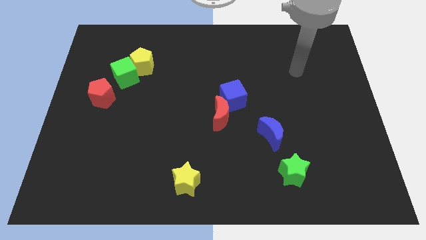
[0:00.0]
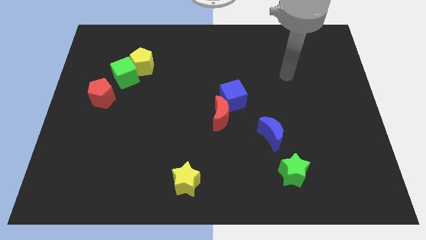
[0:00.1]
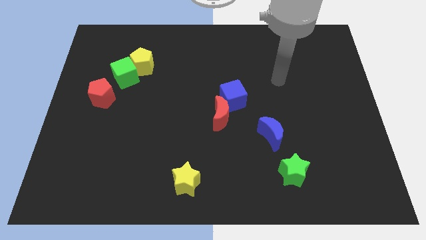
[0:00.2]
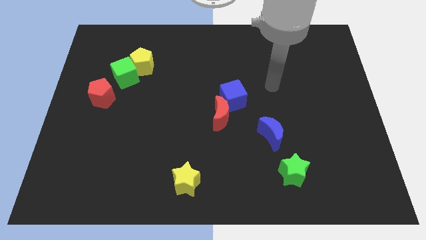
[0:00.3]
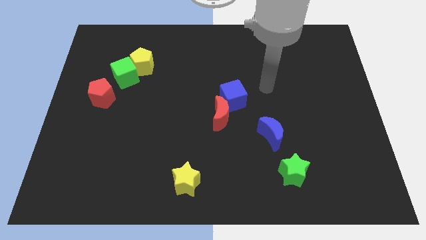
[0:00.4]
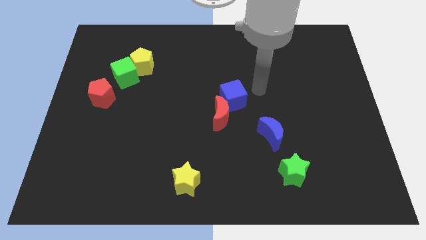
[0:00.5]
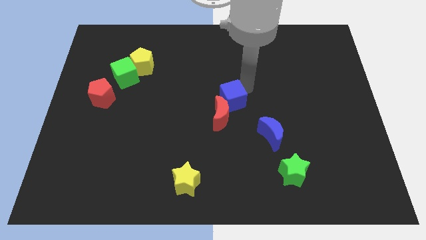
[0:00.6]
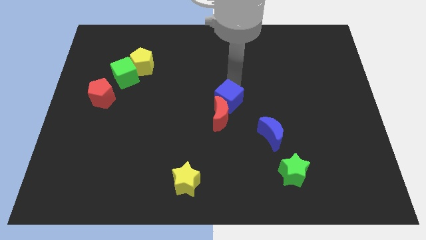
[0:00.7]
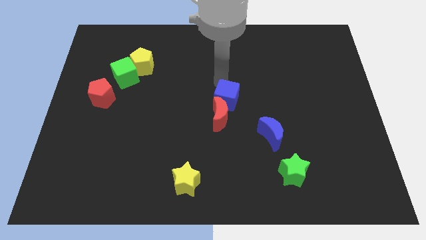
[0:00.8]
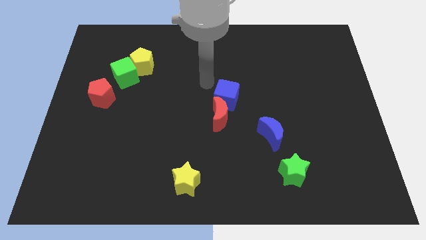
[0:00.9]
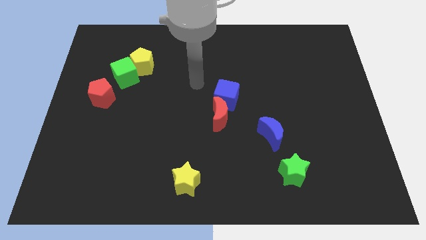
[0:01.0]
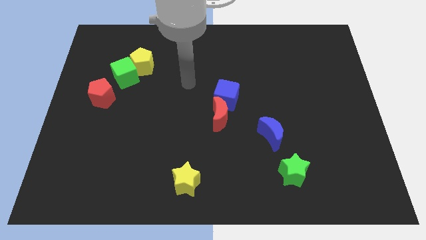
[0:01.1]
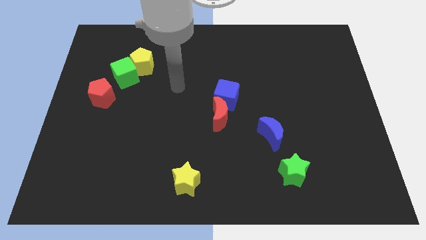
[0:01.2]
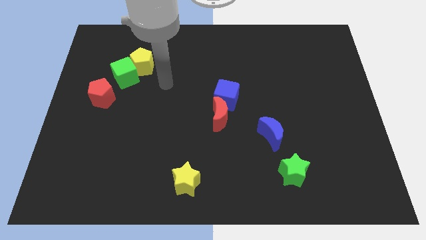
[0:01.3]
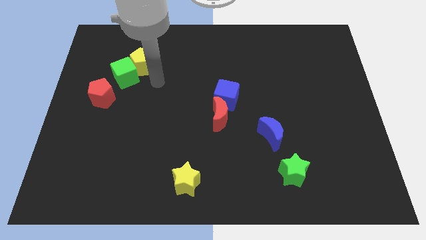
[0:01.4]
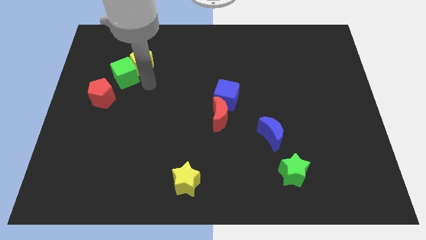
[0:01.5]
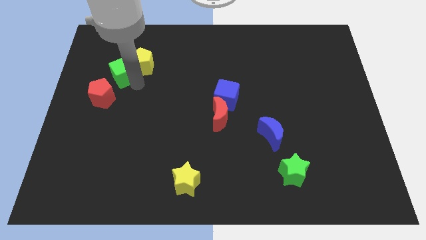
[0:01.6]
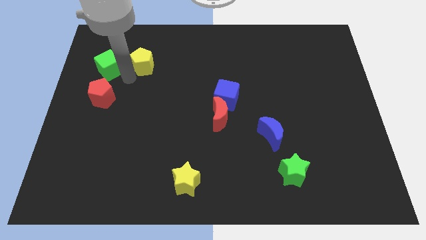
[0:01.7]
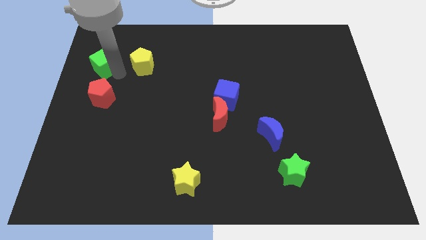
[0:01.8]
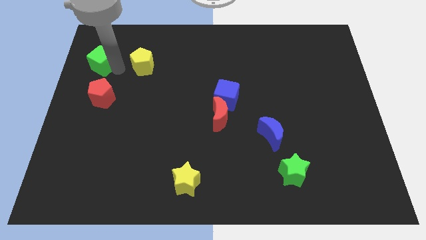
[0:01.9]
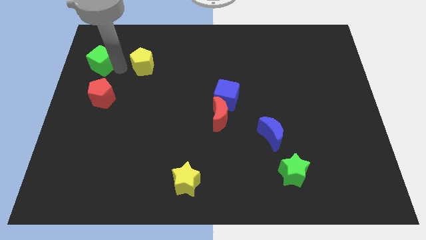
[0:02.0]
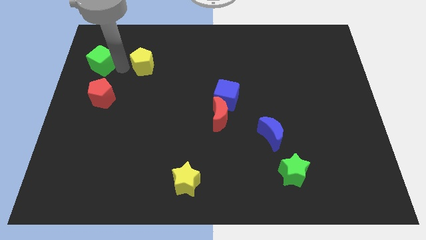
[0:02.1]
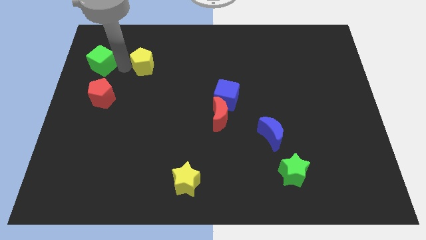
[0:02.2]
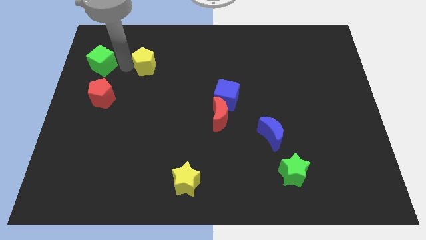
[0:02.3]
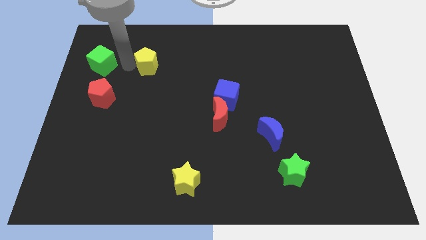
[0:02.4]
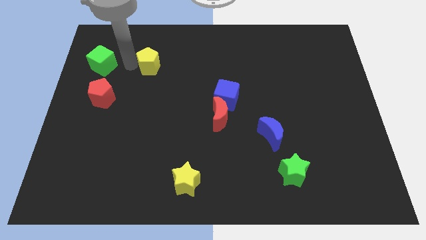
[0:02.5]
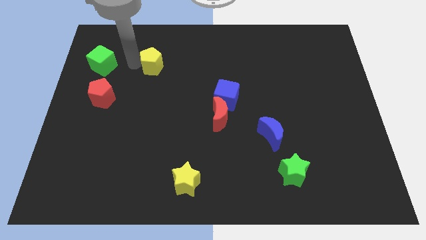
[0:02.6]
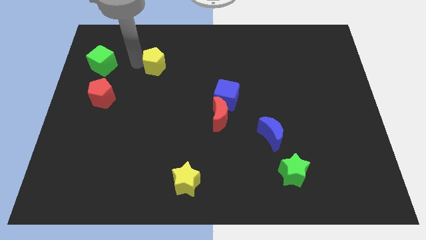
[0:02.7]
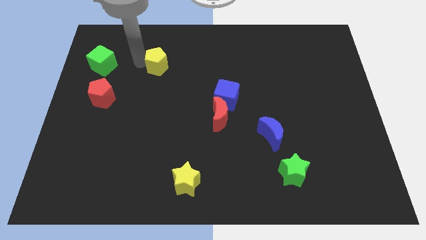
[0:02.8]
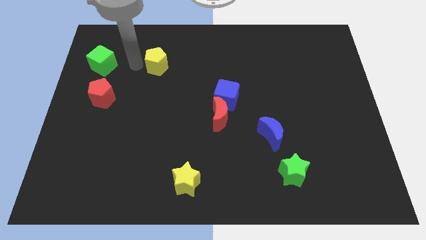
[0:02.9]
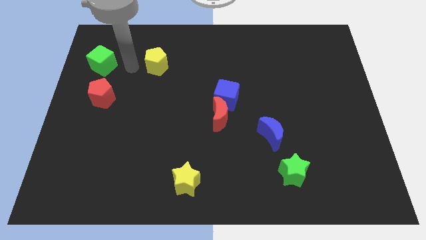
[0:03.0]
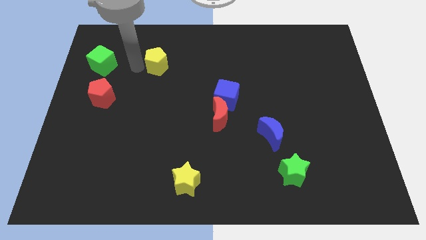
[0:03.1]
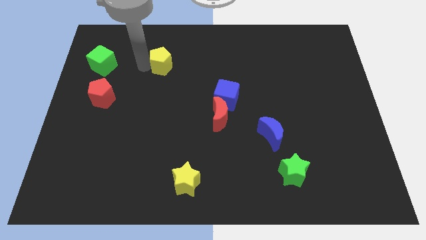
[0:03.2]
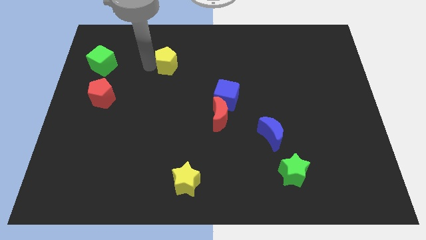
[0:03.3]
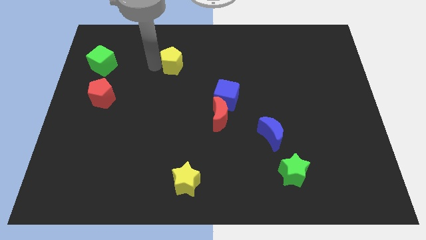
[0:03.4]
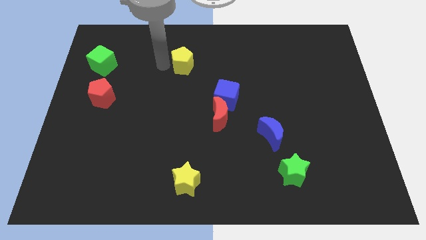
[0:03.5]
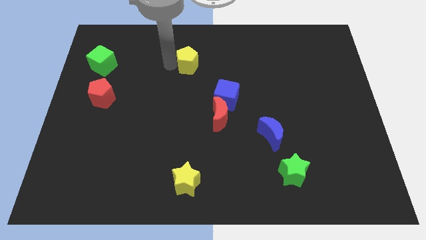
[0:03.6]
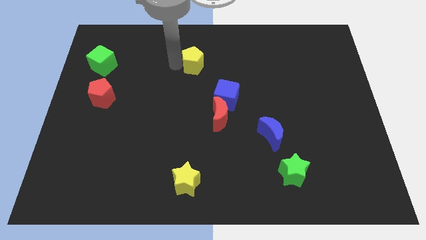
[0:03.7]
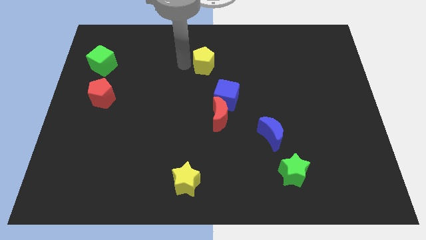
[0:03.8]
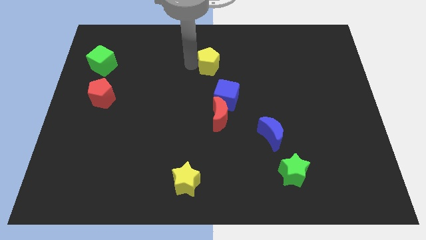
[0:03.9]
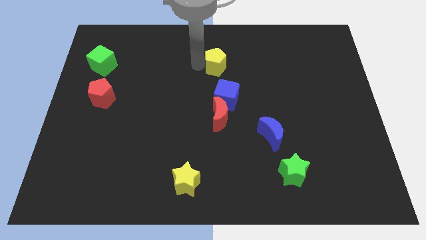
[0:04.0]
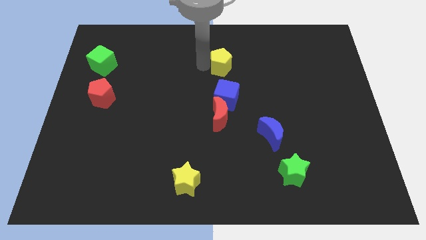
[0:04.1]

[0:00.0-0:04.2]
slide the yellow pentagon right

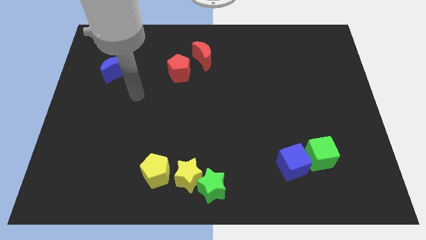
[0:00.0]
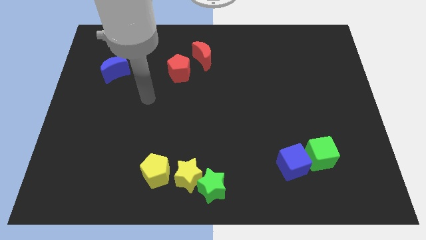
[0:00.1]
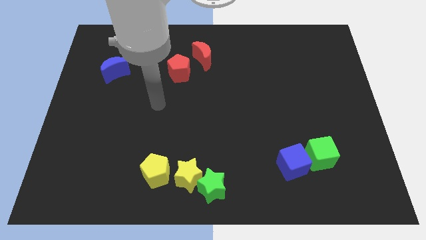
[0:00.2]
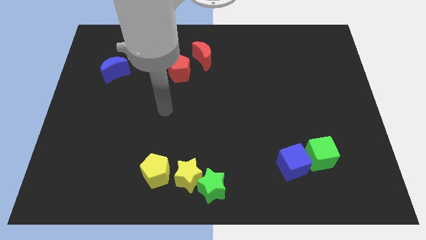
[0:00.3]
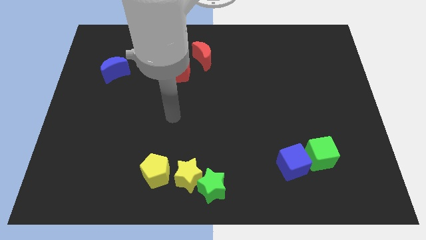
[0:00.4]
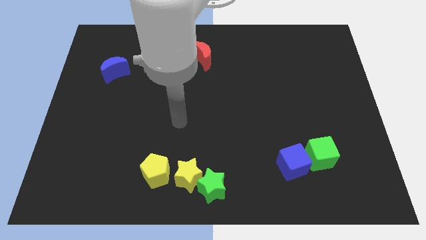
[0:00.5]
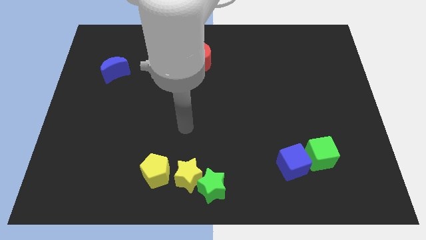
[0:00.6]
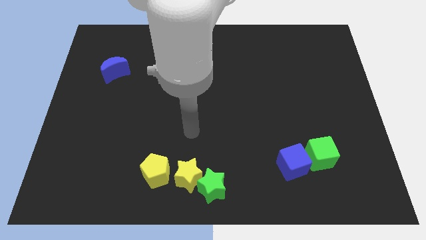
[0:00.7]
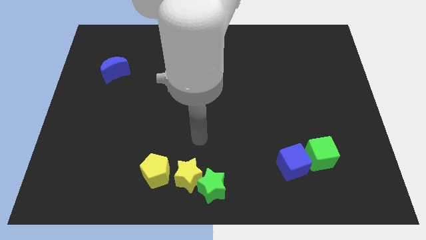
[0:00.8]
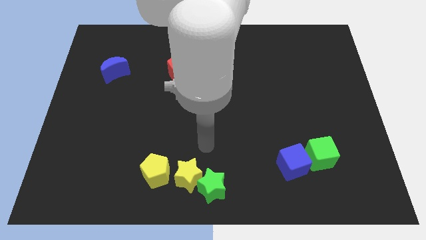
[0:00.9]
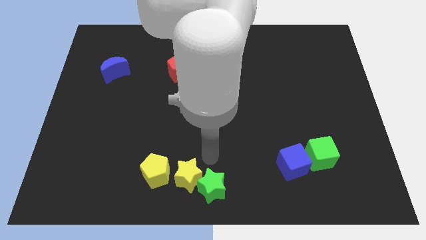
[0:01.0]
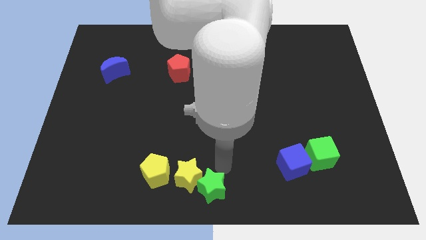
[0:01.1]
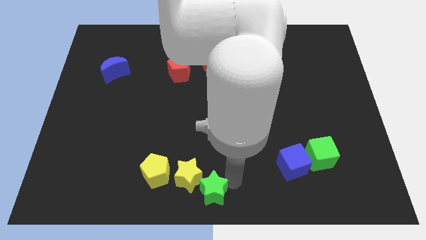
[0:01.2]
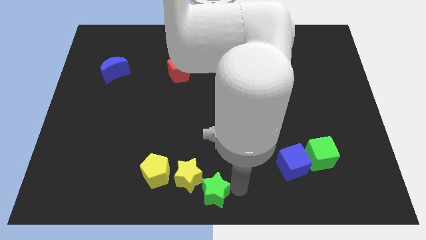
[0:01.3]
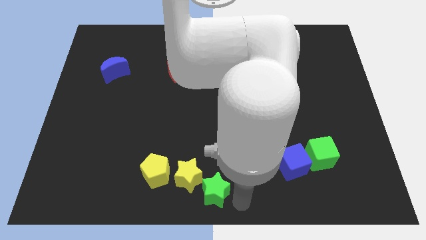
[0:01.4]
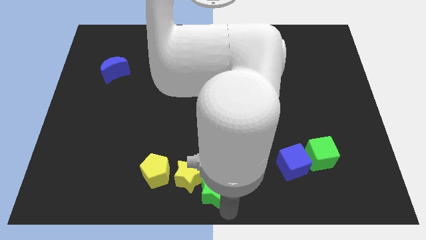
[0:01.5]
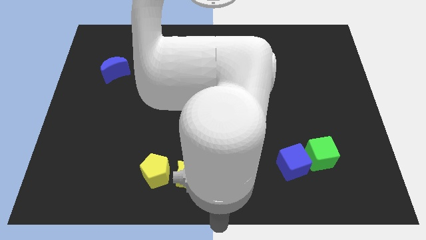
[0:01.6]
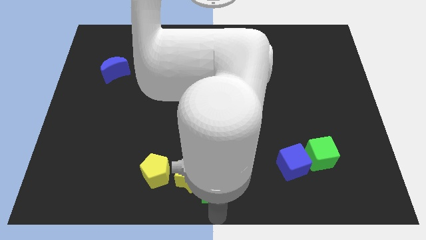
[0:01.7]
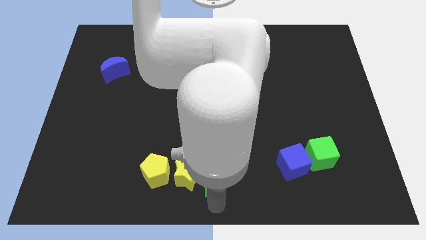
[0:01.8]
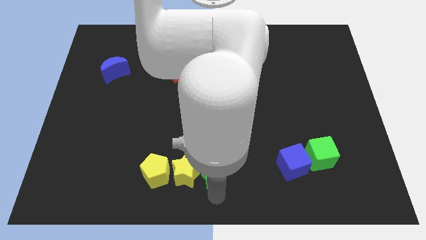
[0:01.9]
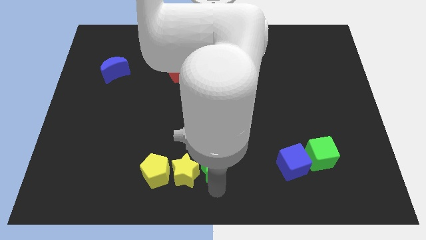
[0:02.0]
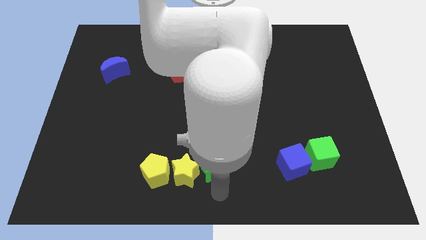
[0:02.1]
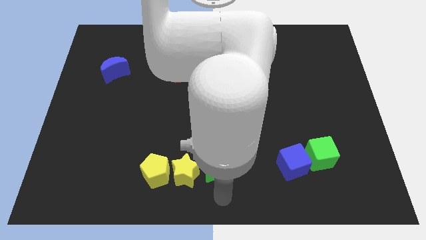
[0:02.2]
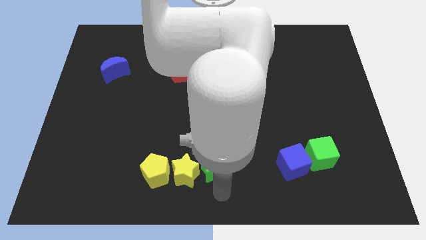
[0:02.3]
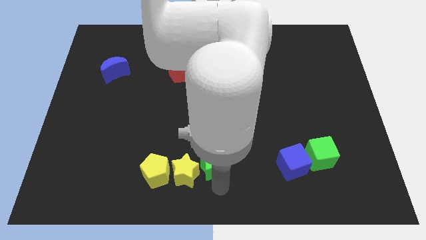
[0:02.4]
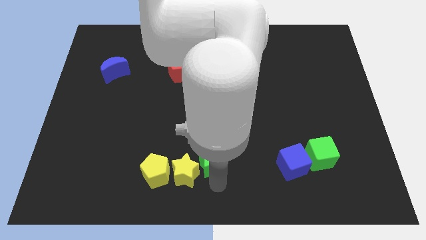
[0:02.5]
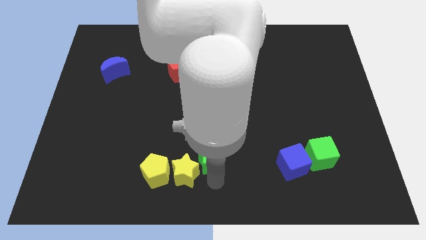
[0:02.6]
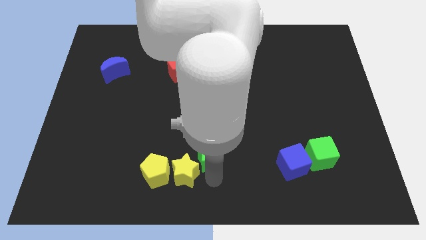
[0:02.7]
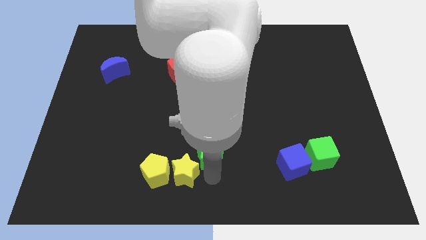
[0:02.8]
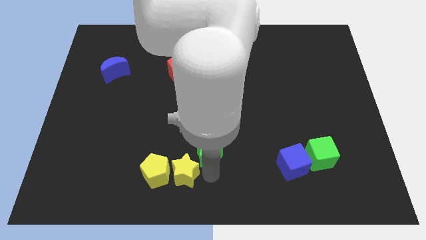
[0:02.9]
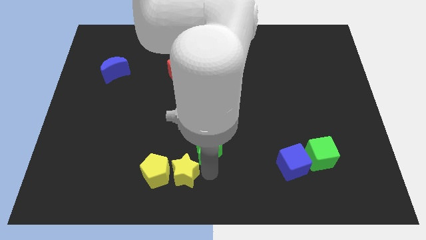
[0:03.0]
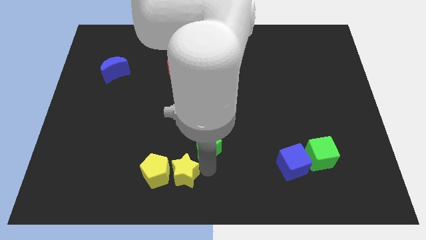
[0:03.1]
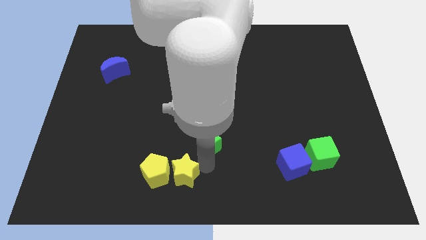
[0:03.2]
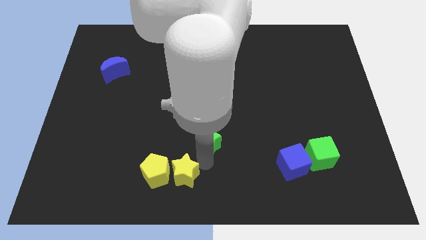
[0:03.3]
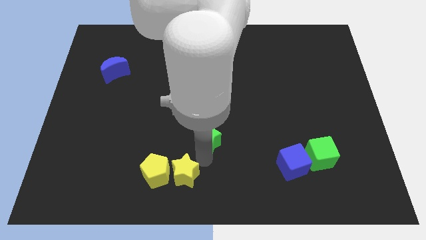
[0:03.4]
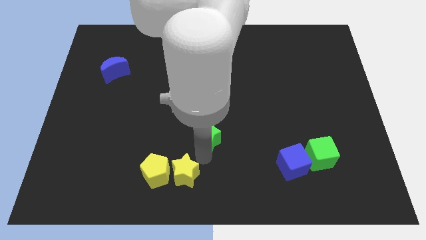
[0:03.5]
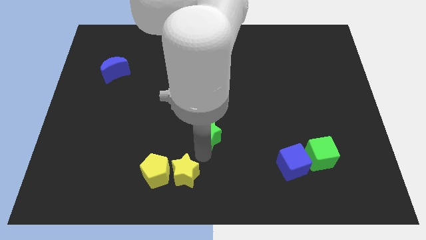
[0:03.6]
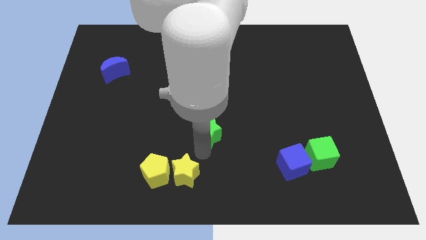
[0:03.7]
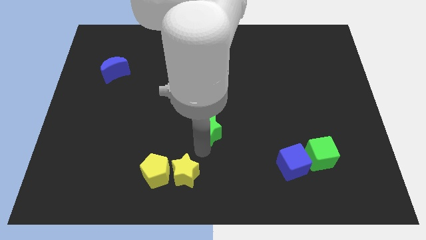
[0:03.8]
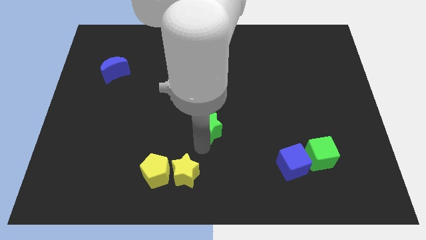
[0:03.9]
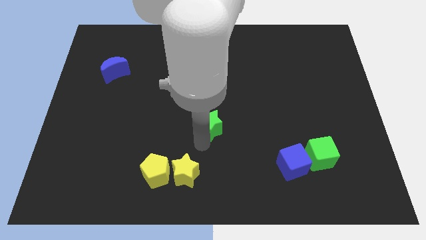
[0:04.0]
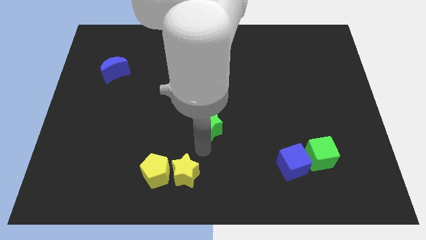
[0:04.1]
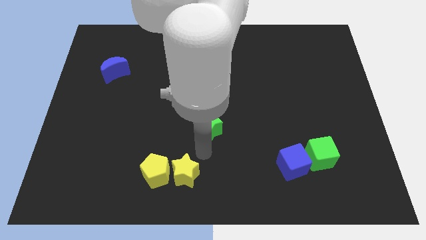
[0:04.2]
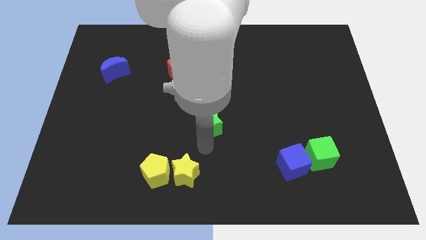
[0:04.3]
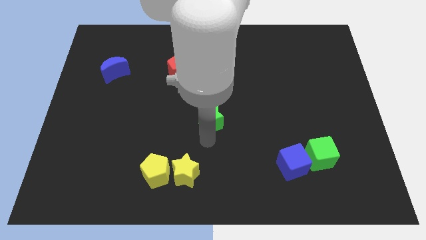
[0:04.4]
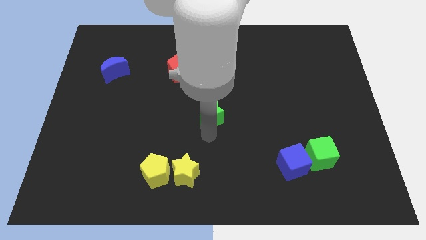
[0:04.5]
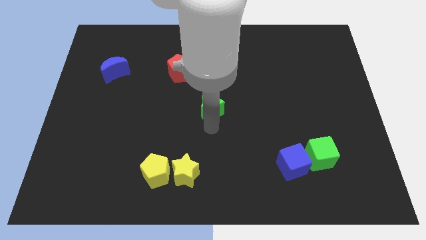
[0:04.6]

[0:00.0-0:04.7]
slide the green star up
